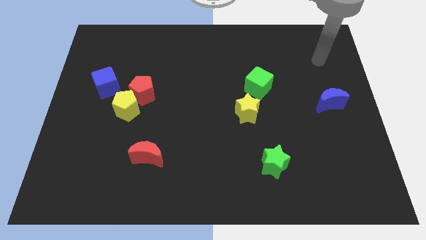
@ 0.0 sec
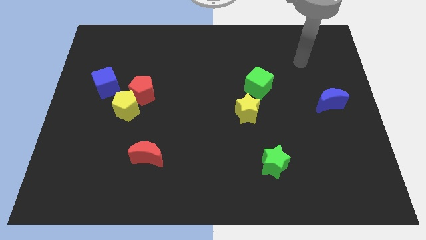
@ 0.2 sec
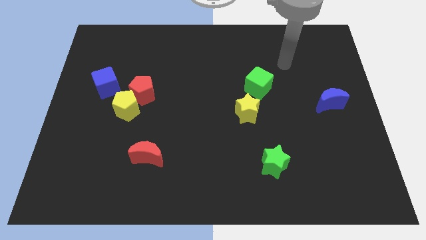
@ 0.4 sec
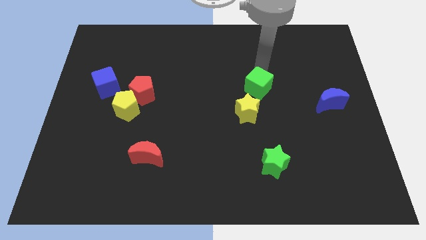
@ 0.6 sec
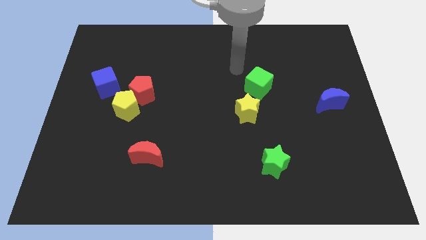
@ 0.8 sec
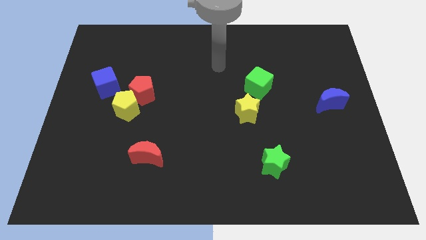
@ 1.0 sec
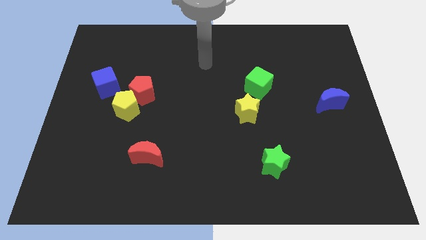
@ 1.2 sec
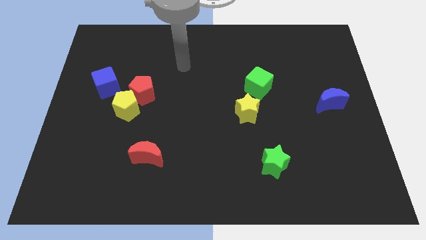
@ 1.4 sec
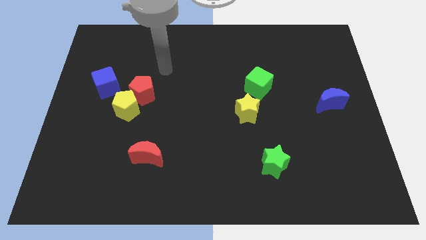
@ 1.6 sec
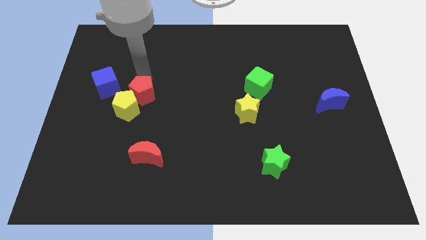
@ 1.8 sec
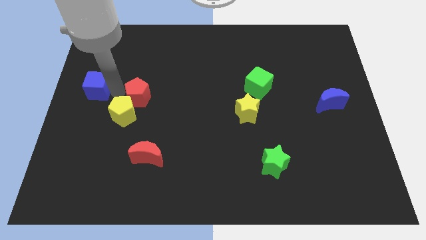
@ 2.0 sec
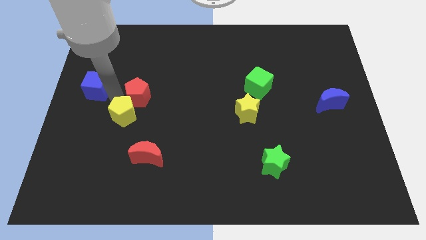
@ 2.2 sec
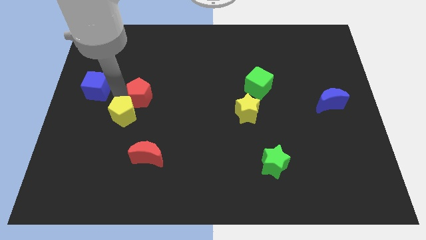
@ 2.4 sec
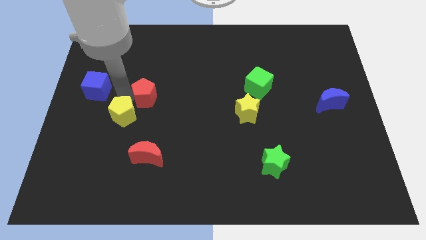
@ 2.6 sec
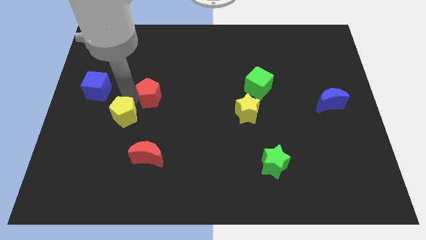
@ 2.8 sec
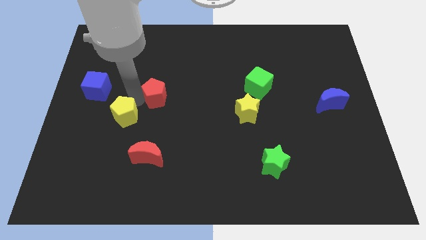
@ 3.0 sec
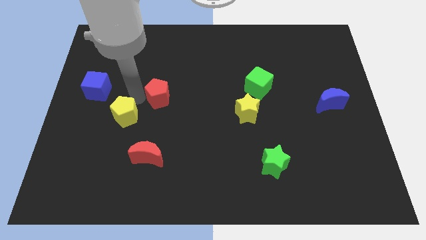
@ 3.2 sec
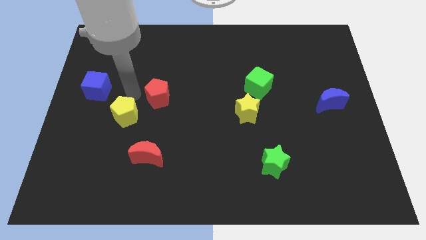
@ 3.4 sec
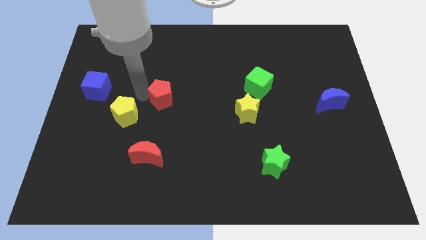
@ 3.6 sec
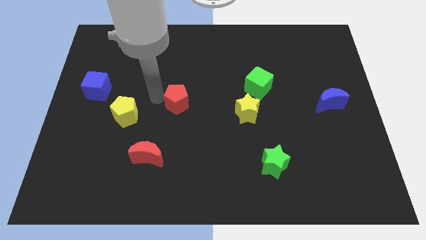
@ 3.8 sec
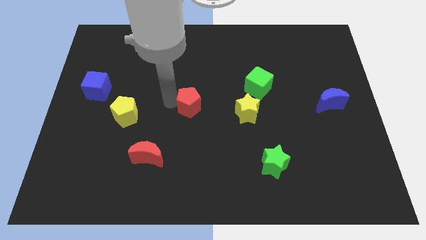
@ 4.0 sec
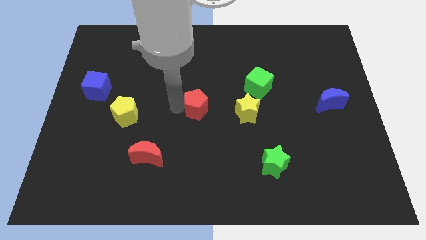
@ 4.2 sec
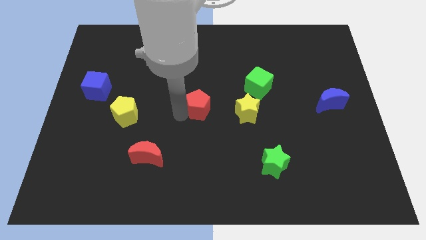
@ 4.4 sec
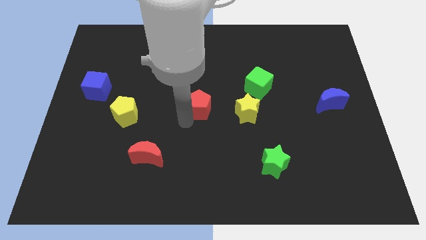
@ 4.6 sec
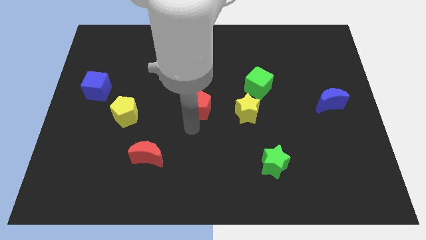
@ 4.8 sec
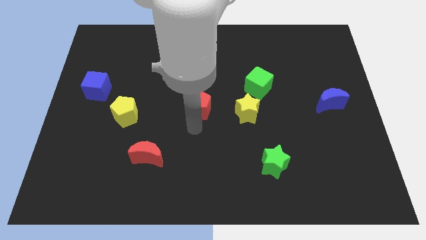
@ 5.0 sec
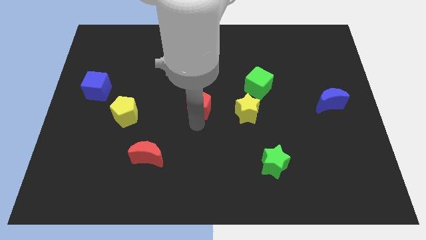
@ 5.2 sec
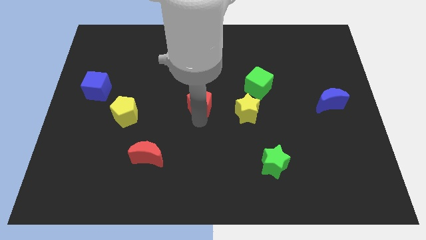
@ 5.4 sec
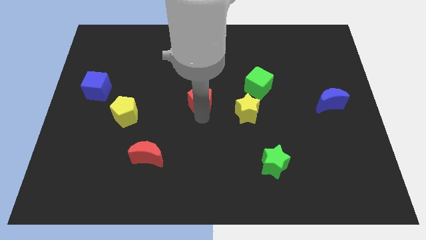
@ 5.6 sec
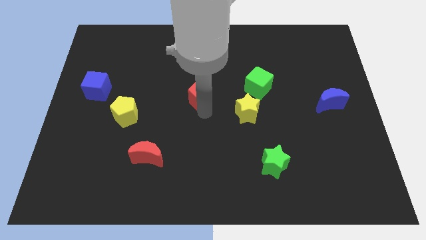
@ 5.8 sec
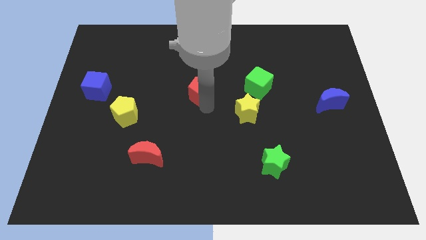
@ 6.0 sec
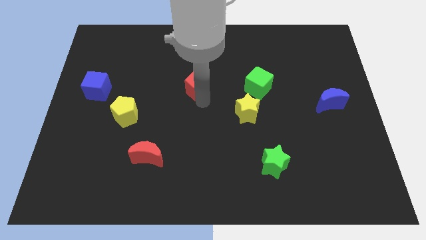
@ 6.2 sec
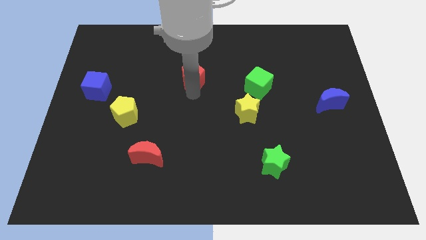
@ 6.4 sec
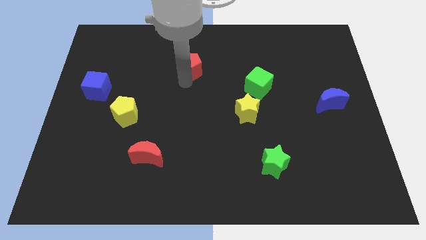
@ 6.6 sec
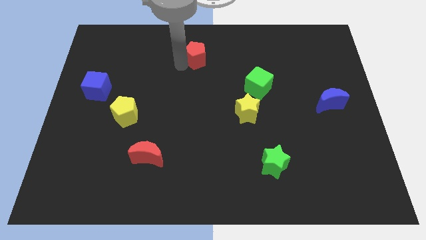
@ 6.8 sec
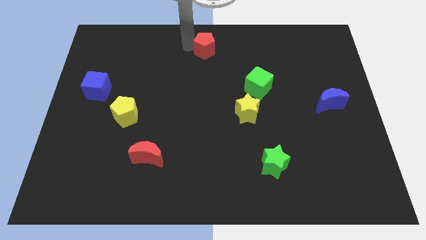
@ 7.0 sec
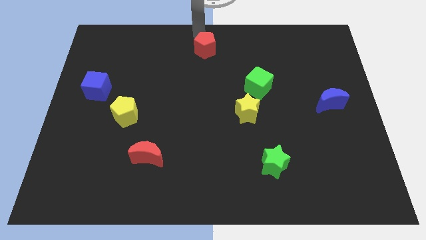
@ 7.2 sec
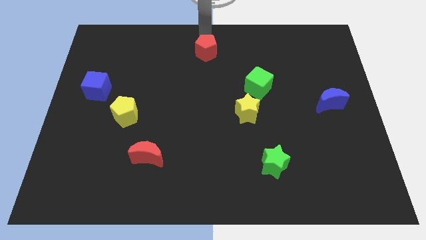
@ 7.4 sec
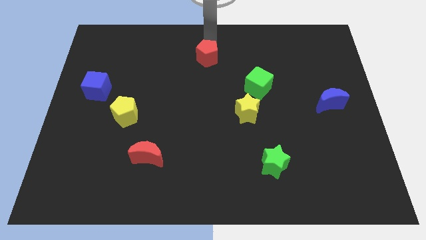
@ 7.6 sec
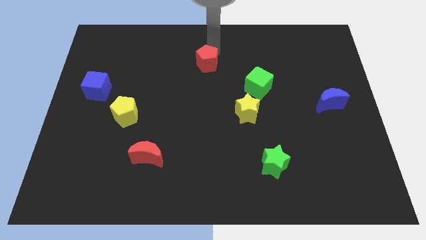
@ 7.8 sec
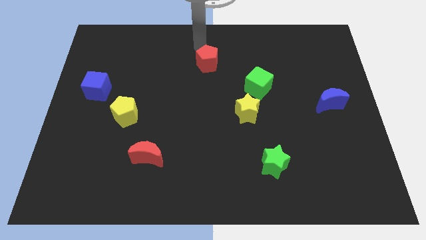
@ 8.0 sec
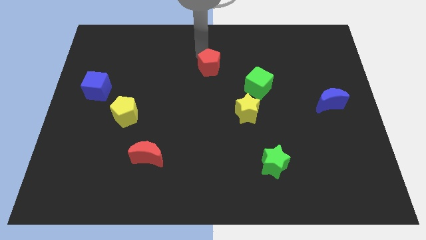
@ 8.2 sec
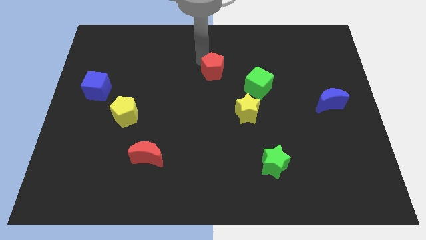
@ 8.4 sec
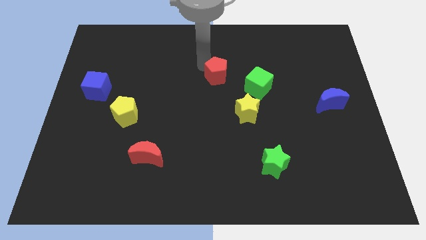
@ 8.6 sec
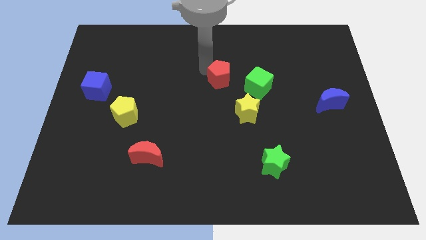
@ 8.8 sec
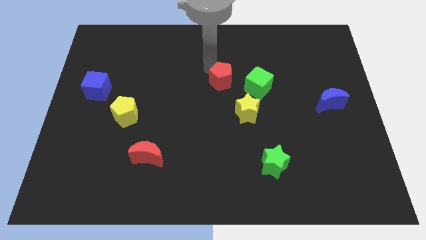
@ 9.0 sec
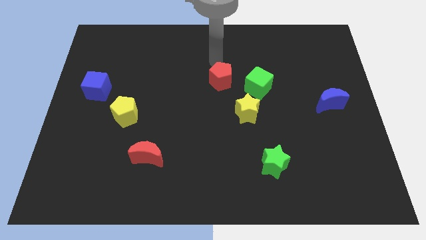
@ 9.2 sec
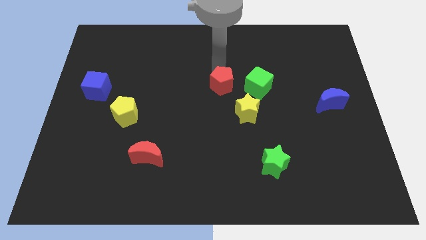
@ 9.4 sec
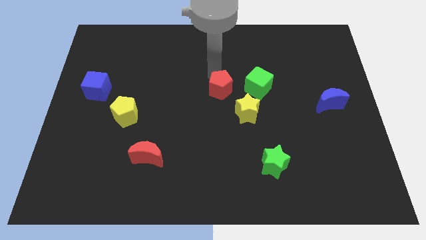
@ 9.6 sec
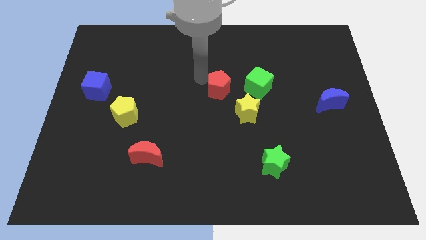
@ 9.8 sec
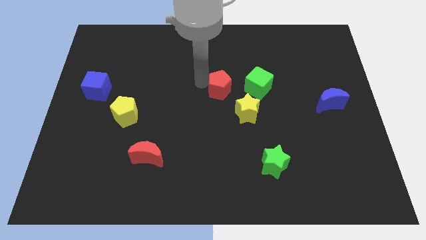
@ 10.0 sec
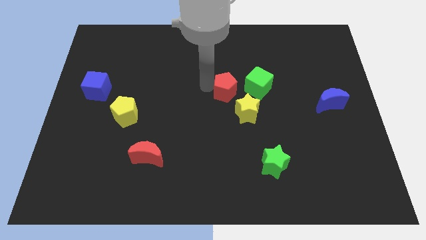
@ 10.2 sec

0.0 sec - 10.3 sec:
slide the red pentagon right

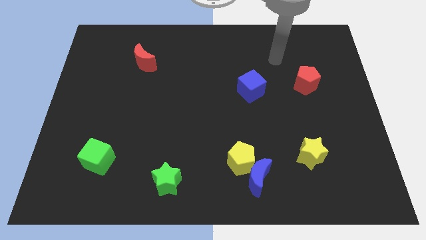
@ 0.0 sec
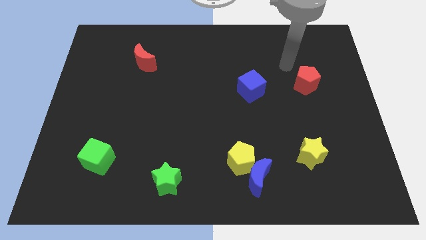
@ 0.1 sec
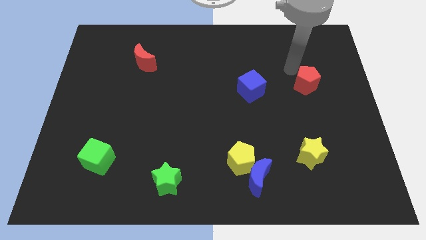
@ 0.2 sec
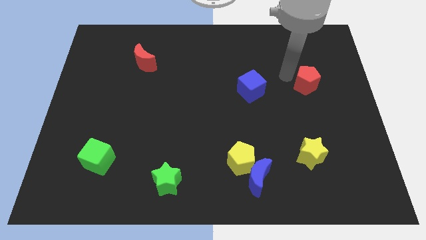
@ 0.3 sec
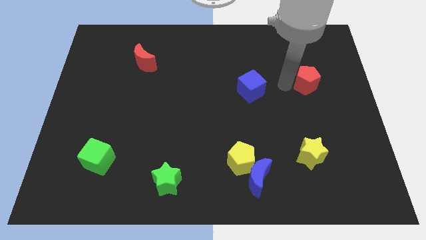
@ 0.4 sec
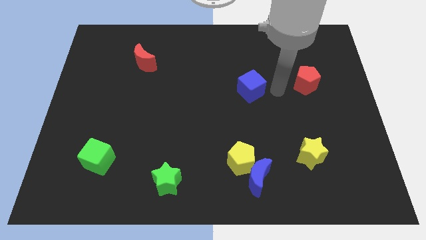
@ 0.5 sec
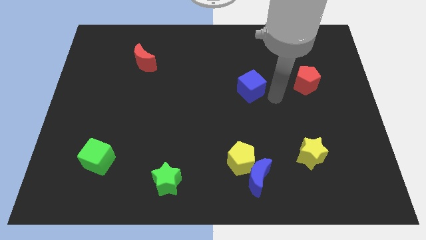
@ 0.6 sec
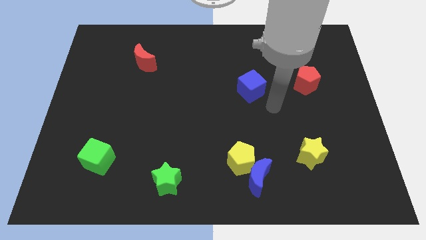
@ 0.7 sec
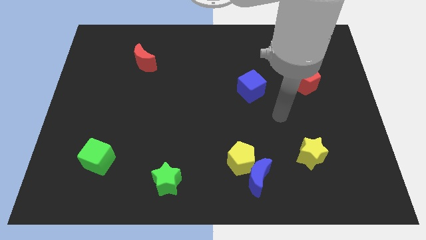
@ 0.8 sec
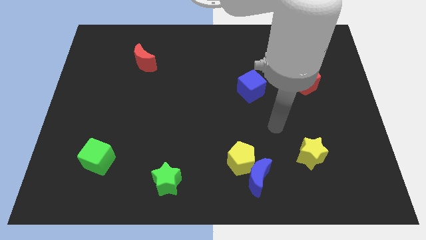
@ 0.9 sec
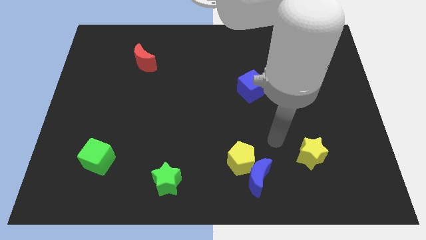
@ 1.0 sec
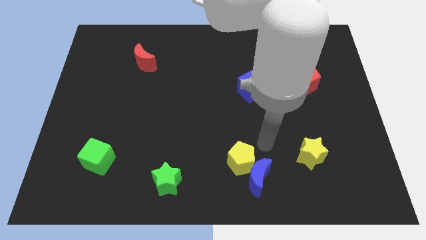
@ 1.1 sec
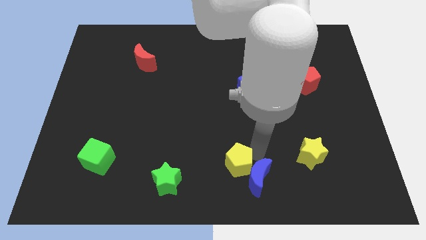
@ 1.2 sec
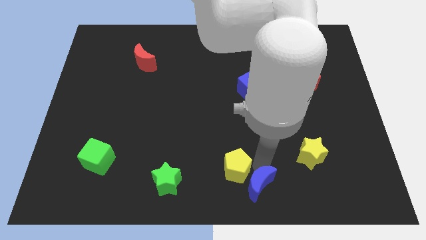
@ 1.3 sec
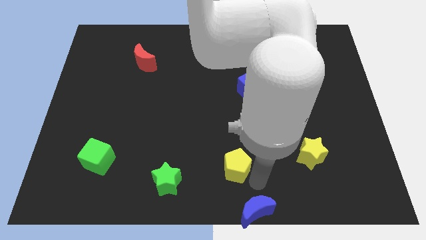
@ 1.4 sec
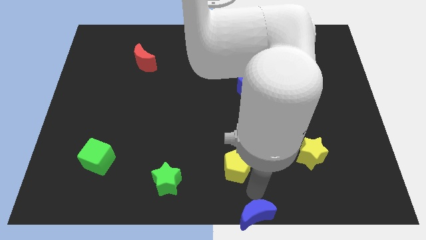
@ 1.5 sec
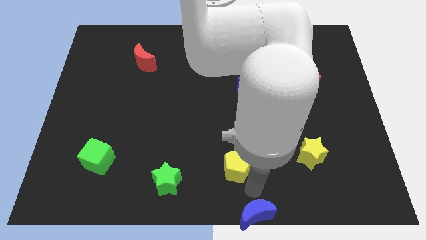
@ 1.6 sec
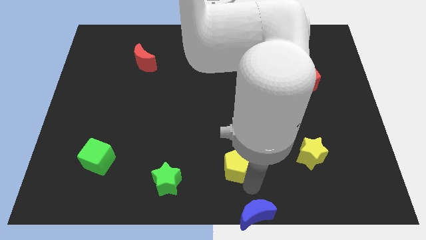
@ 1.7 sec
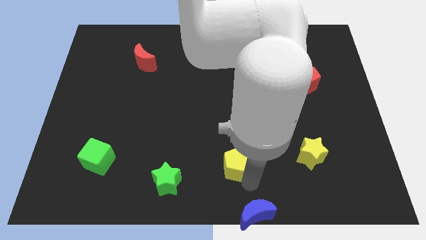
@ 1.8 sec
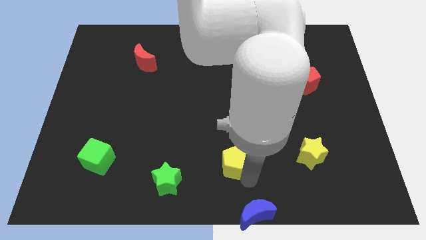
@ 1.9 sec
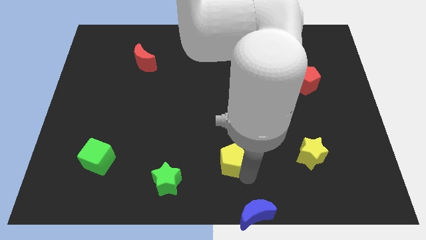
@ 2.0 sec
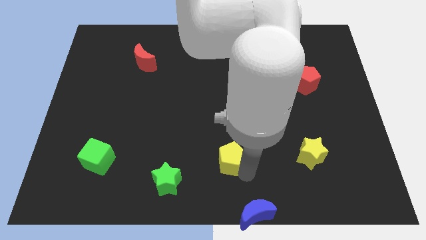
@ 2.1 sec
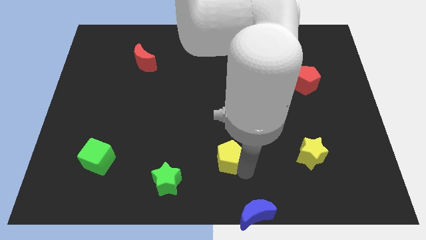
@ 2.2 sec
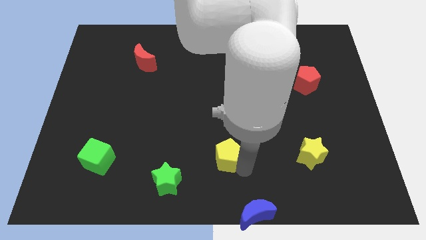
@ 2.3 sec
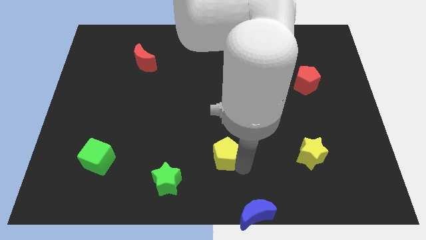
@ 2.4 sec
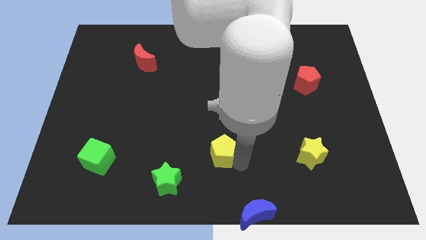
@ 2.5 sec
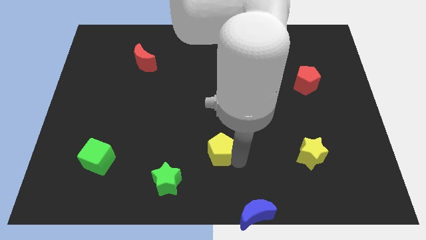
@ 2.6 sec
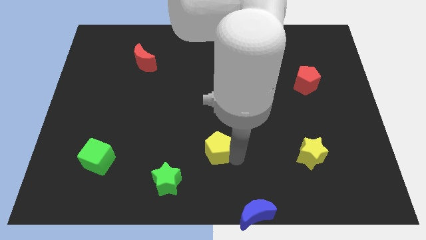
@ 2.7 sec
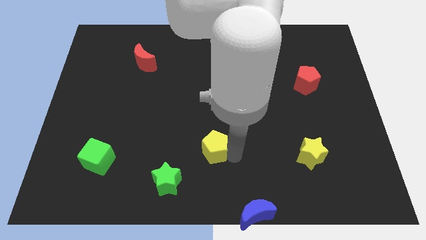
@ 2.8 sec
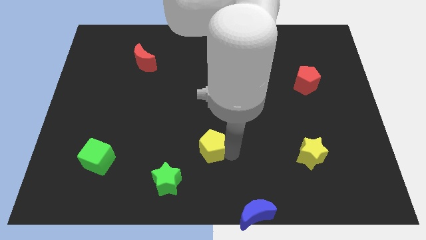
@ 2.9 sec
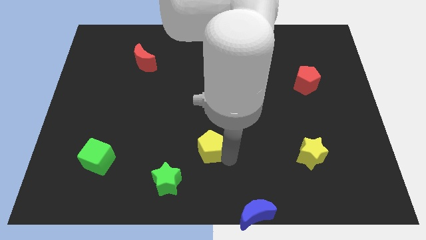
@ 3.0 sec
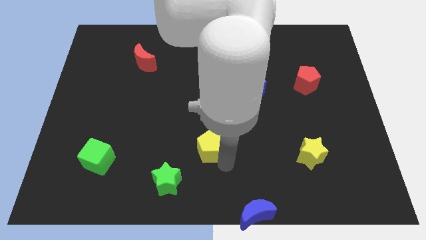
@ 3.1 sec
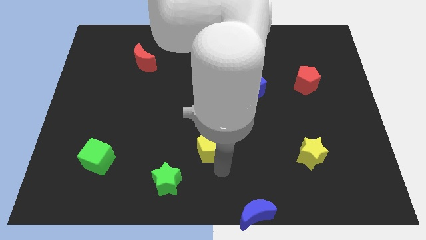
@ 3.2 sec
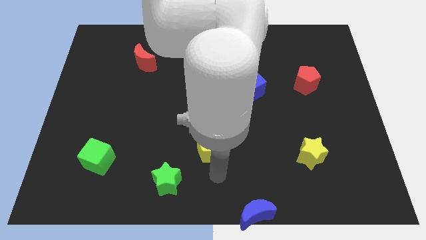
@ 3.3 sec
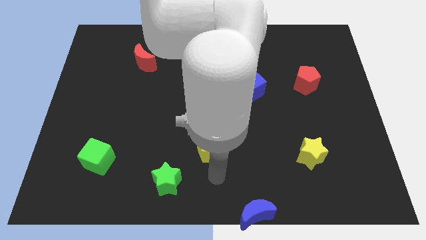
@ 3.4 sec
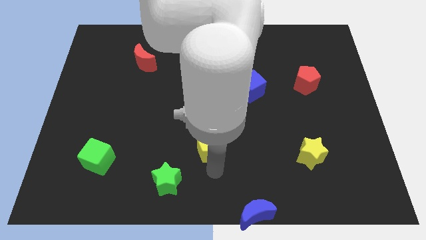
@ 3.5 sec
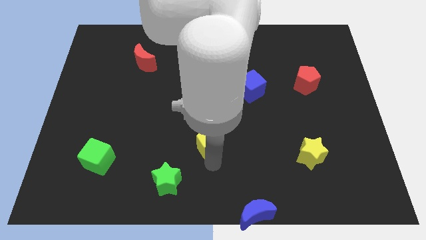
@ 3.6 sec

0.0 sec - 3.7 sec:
push the yellow pentagon slightly up and to the left diagonally
